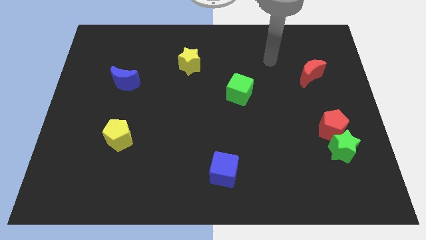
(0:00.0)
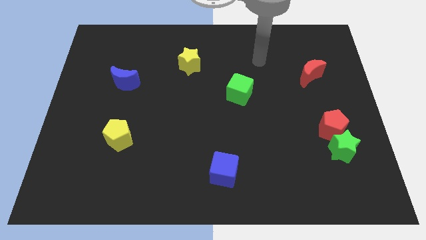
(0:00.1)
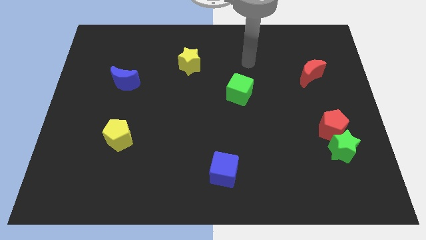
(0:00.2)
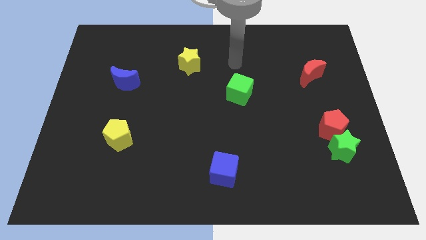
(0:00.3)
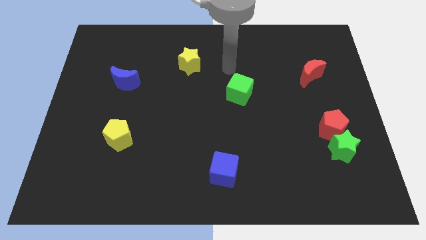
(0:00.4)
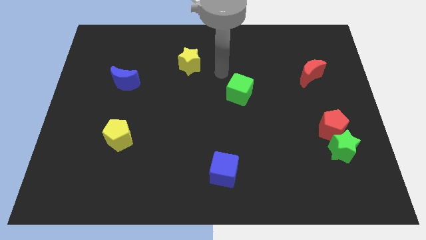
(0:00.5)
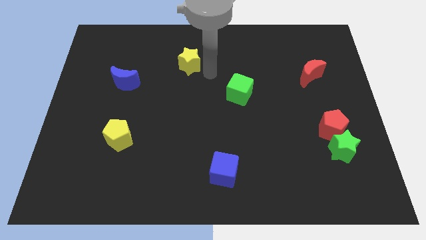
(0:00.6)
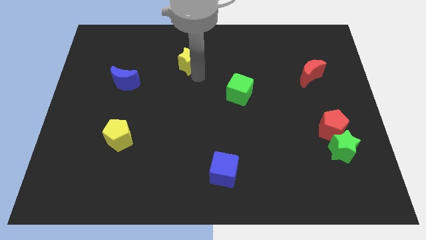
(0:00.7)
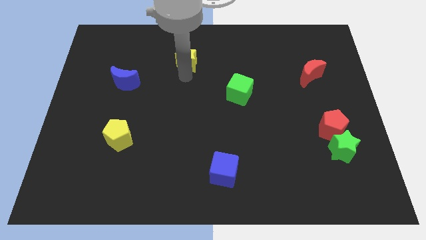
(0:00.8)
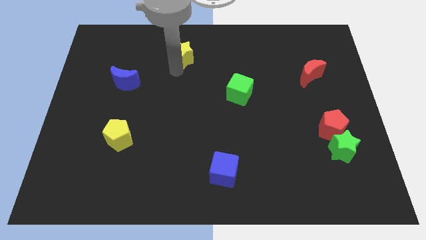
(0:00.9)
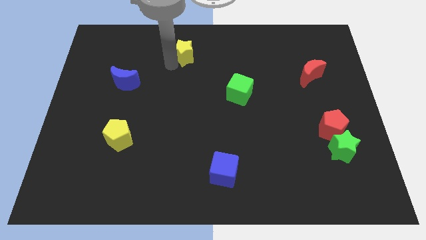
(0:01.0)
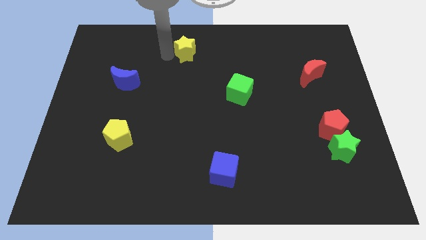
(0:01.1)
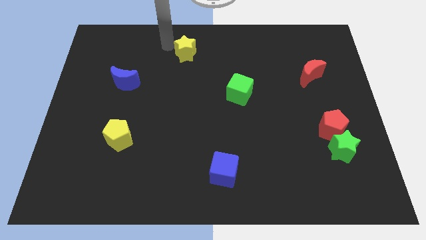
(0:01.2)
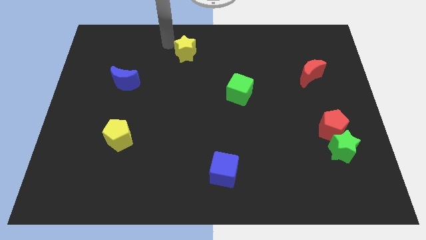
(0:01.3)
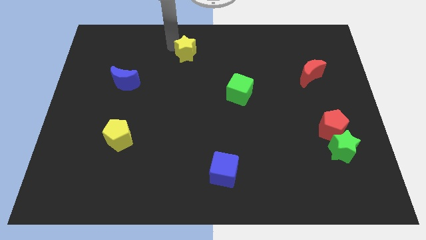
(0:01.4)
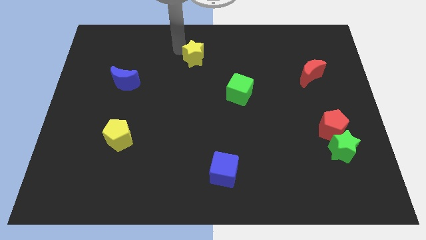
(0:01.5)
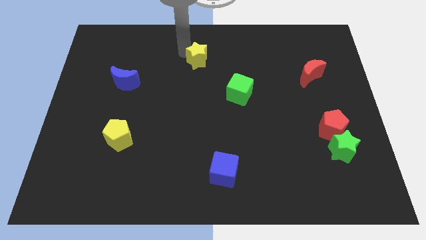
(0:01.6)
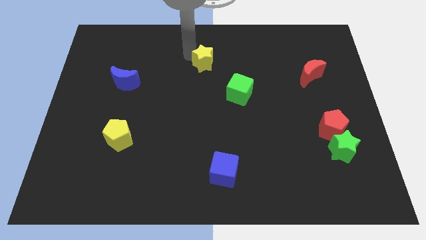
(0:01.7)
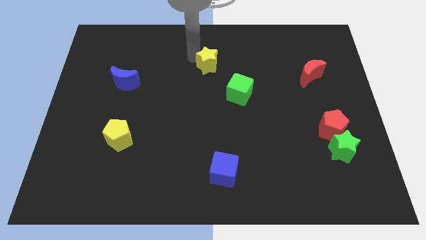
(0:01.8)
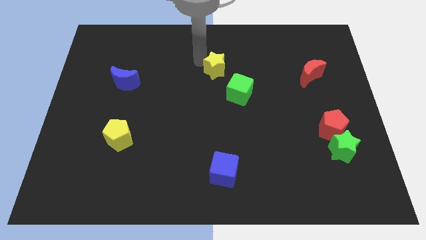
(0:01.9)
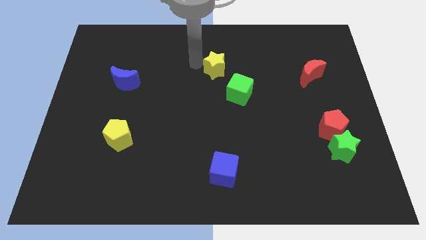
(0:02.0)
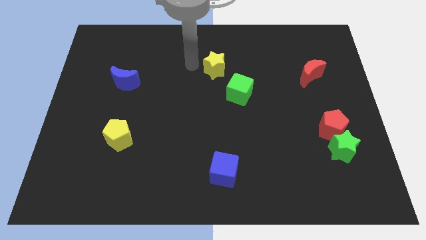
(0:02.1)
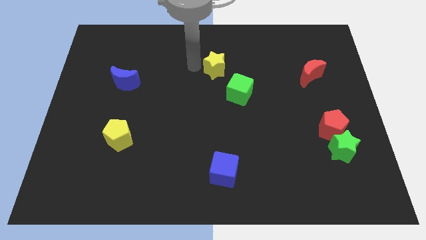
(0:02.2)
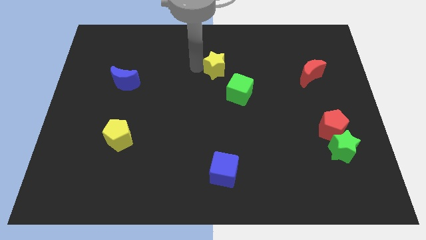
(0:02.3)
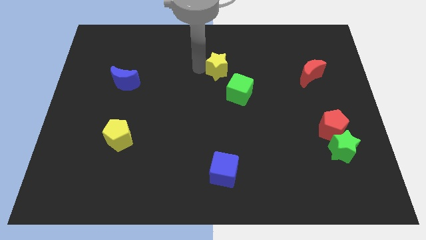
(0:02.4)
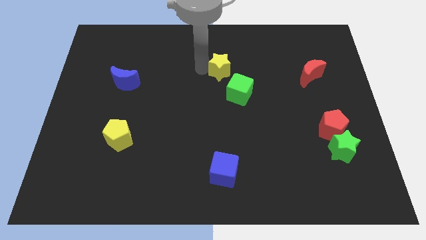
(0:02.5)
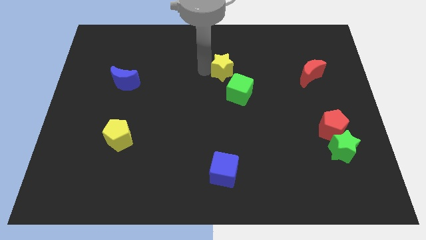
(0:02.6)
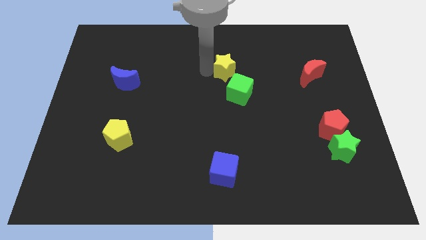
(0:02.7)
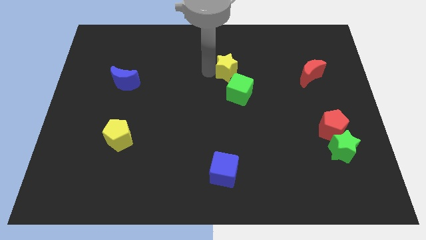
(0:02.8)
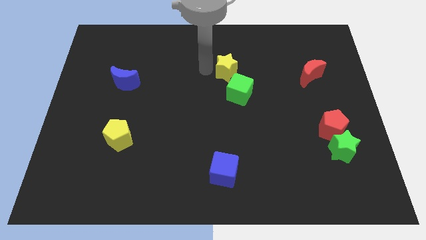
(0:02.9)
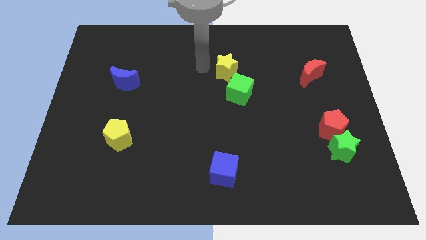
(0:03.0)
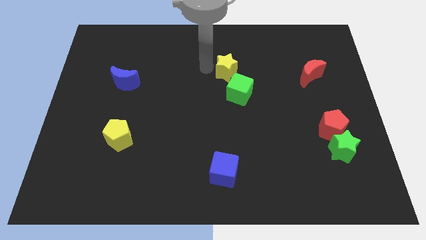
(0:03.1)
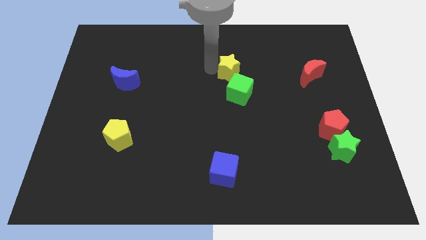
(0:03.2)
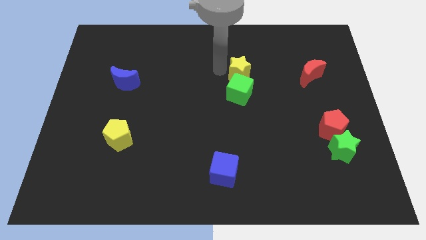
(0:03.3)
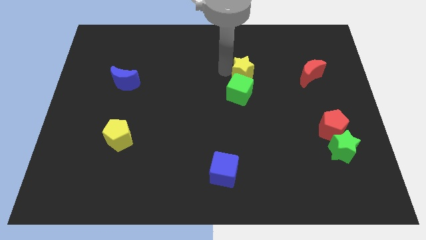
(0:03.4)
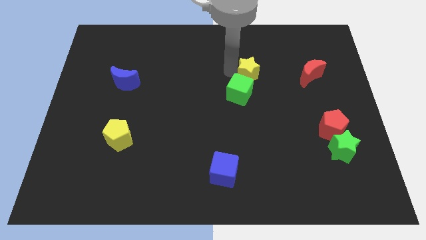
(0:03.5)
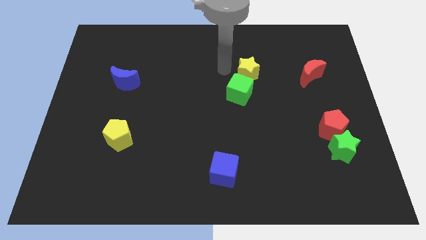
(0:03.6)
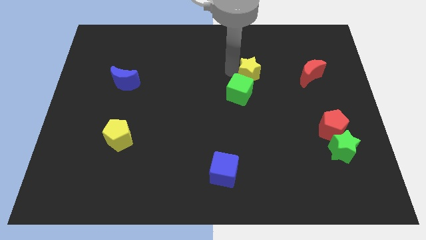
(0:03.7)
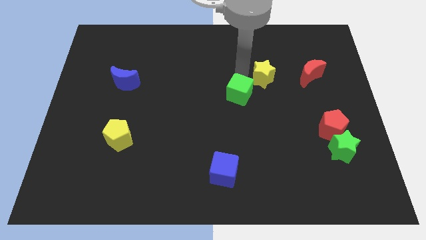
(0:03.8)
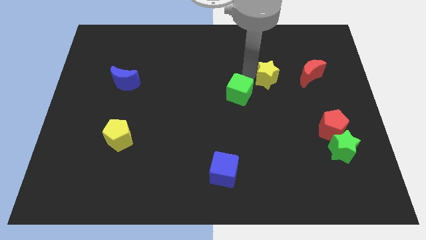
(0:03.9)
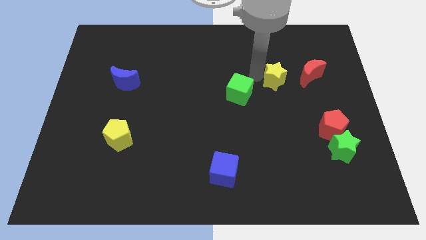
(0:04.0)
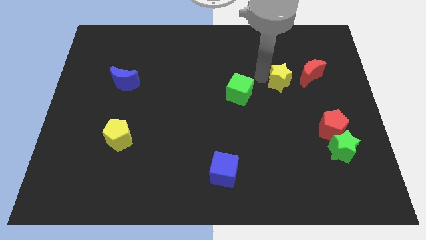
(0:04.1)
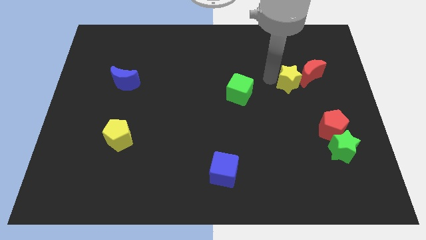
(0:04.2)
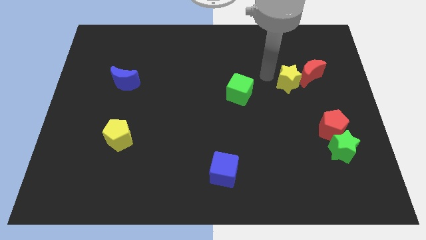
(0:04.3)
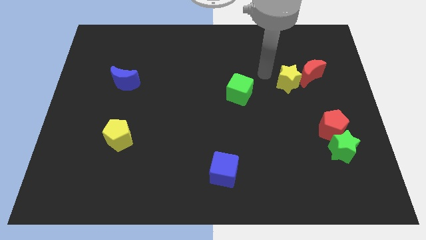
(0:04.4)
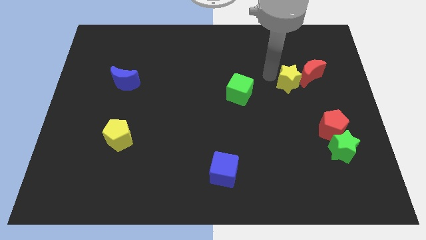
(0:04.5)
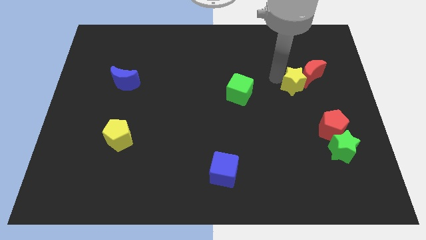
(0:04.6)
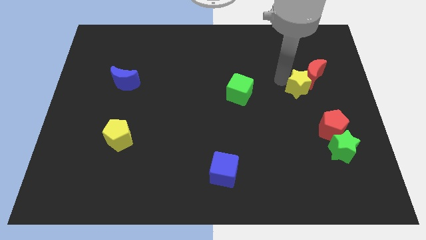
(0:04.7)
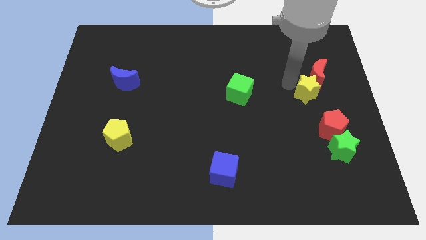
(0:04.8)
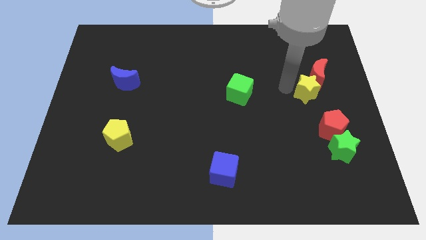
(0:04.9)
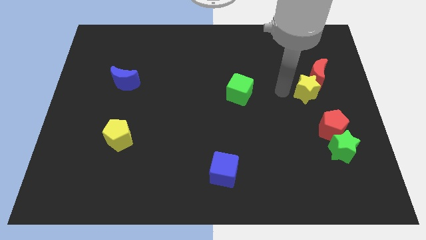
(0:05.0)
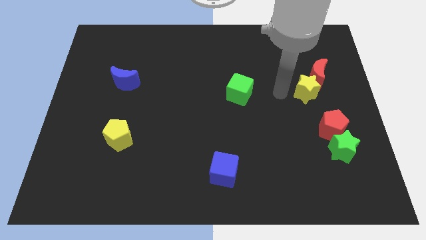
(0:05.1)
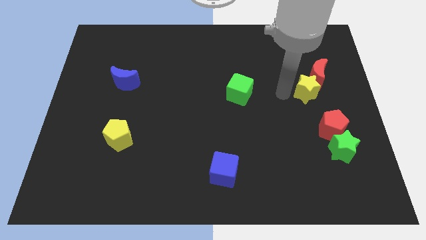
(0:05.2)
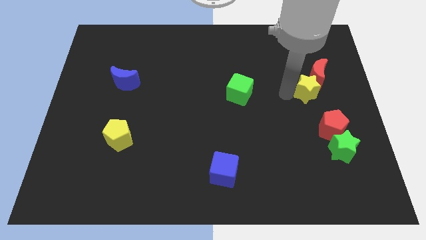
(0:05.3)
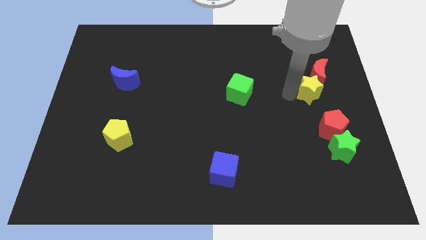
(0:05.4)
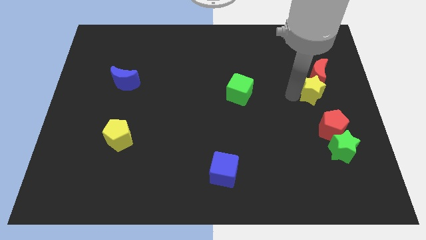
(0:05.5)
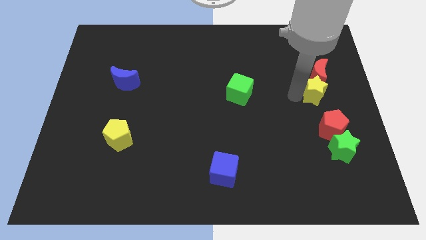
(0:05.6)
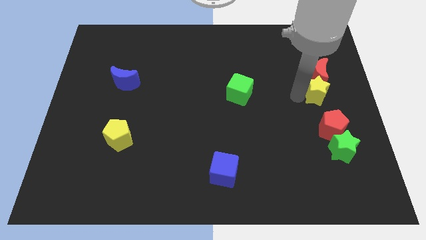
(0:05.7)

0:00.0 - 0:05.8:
put the yellow star to the right side
